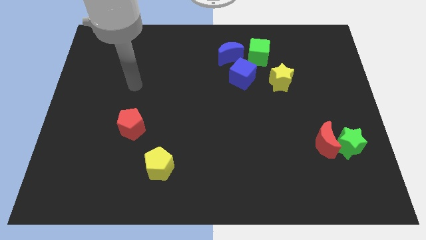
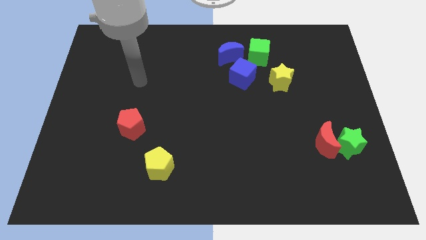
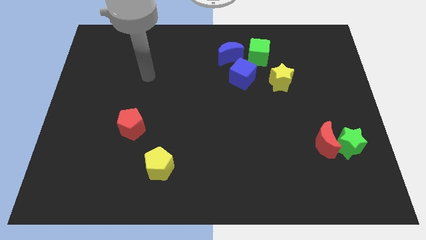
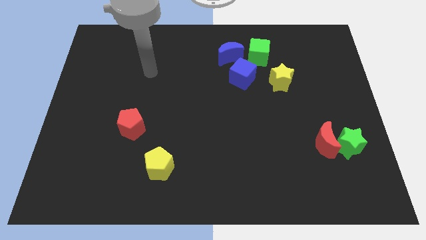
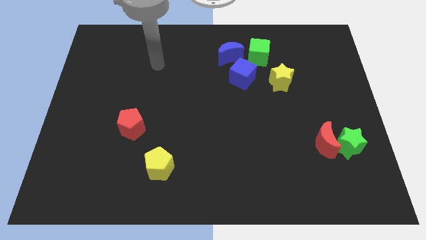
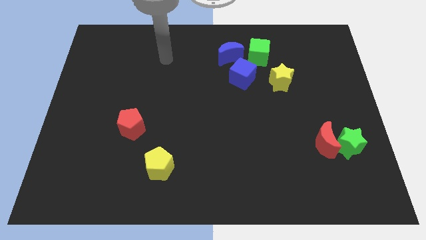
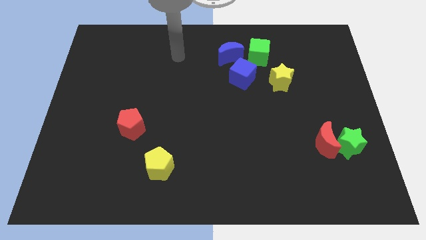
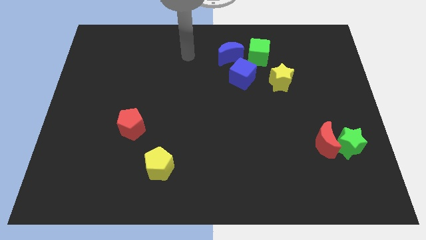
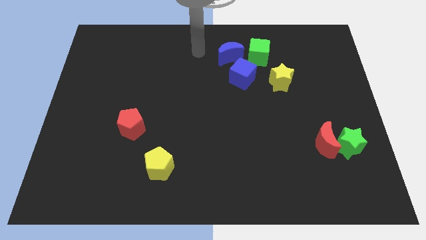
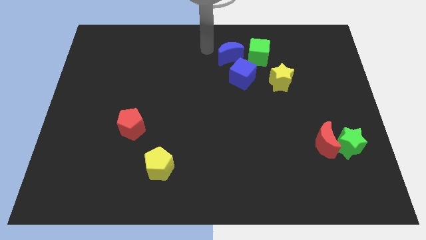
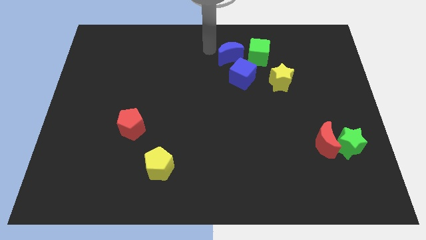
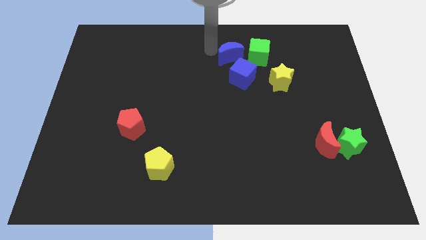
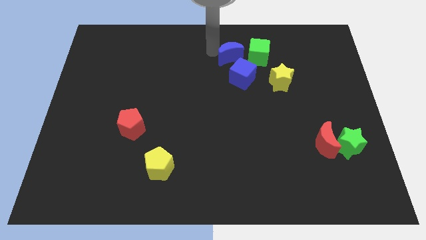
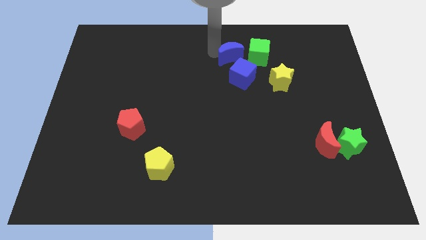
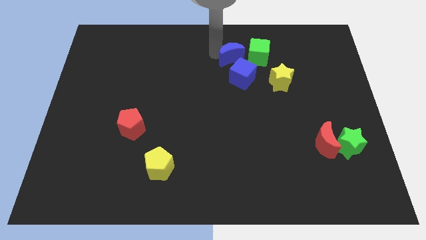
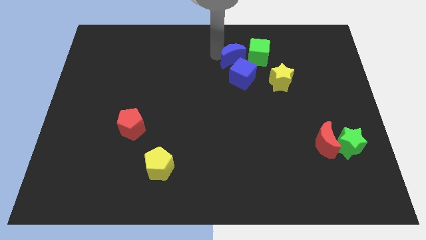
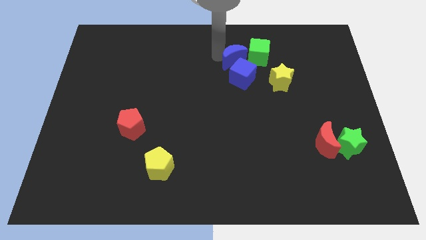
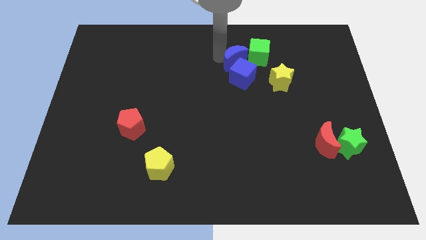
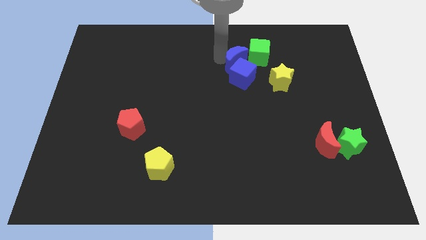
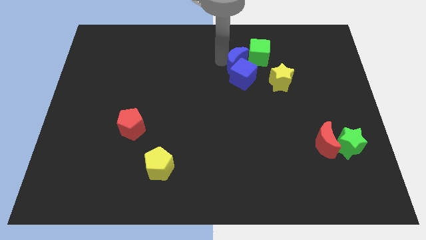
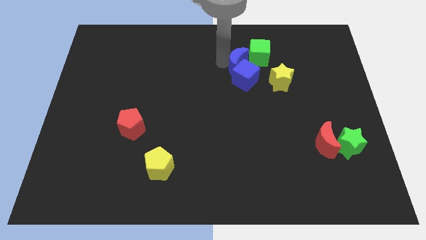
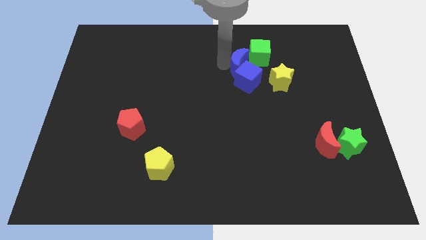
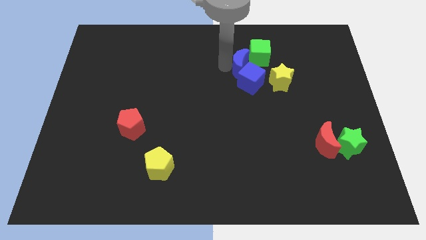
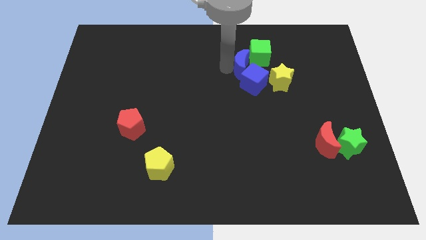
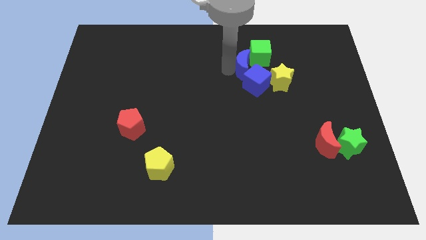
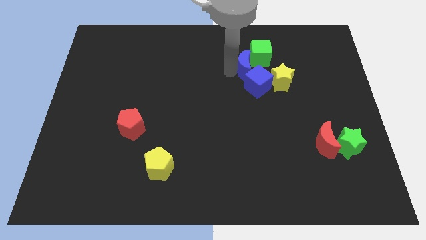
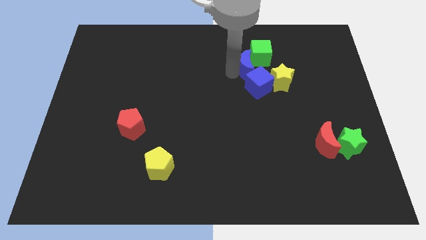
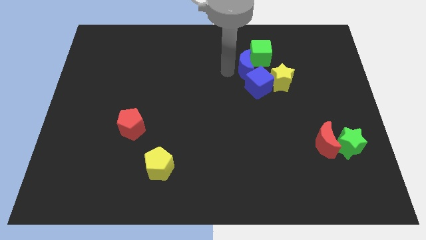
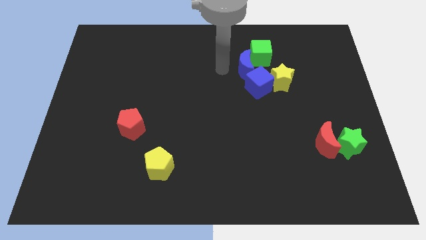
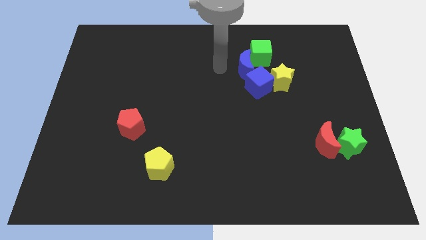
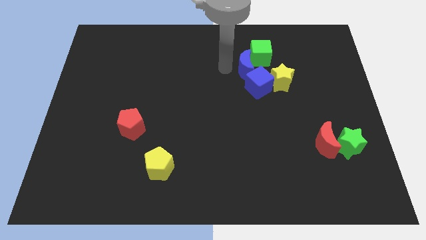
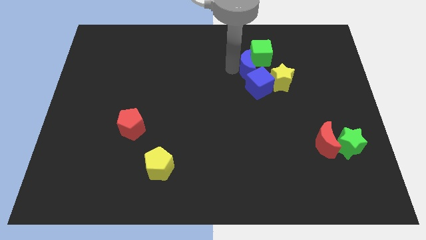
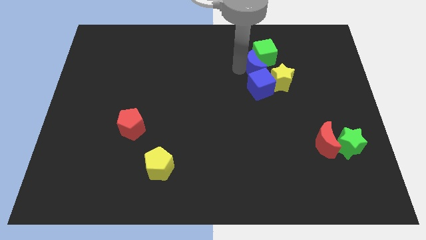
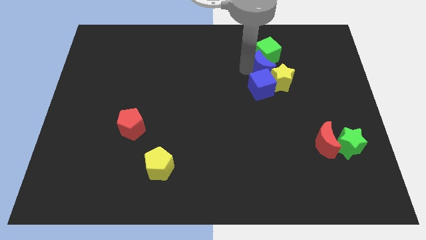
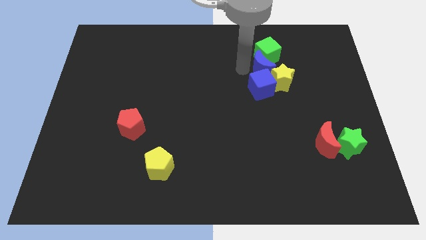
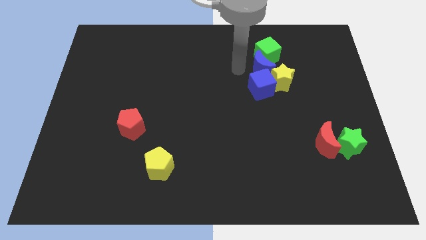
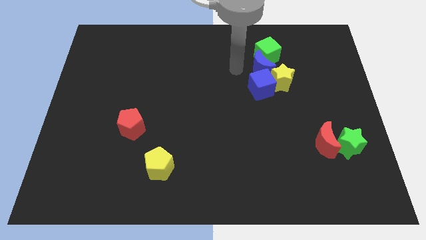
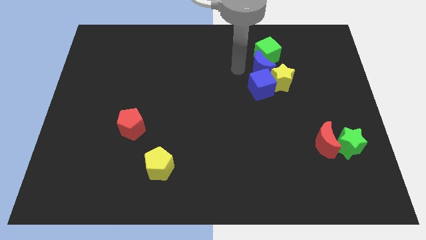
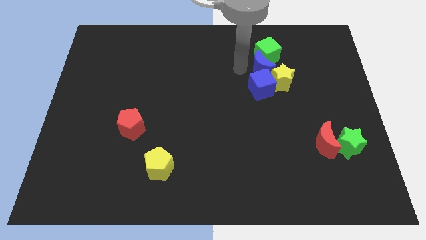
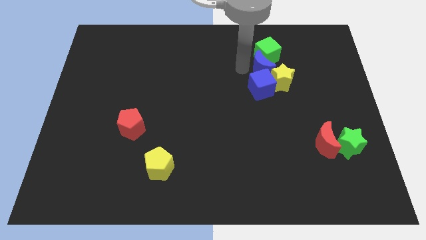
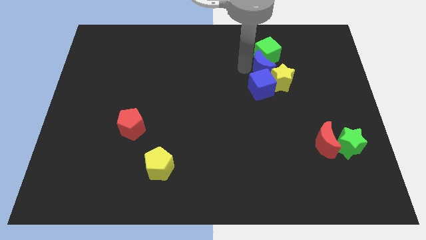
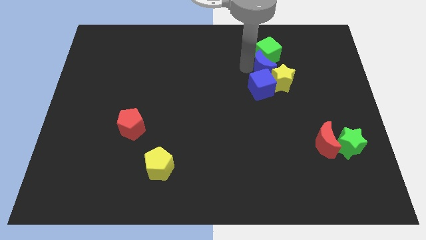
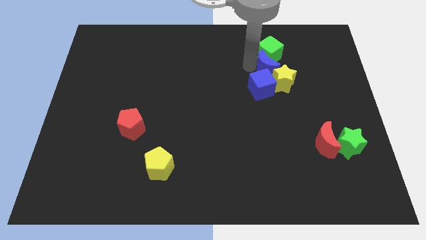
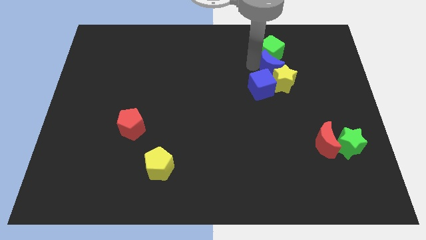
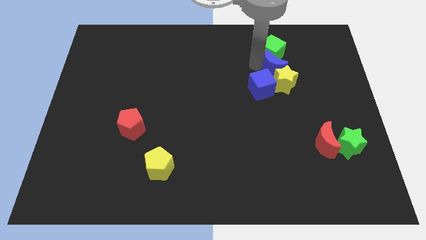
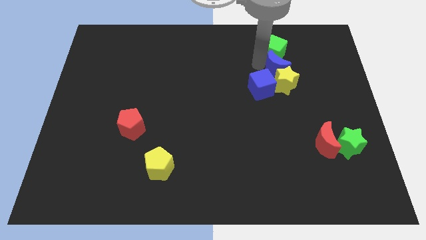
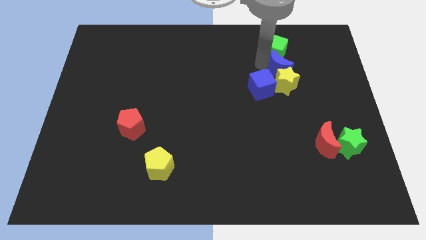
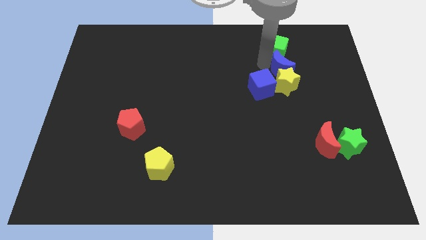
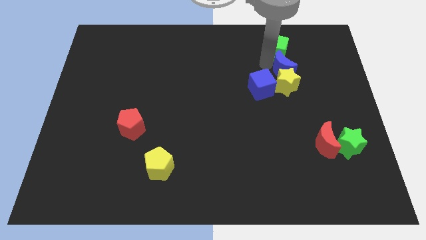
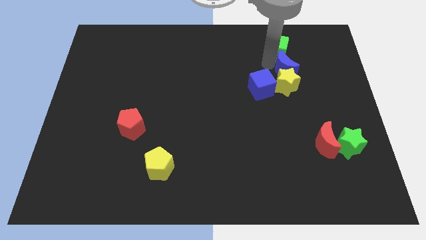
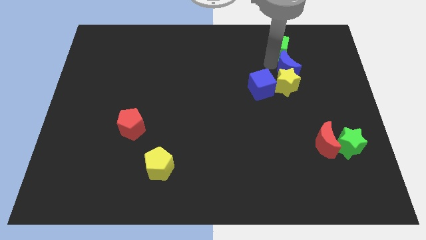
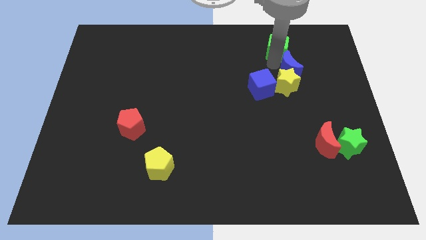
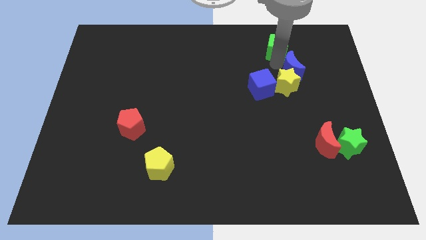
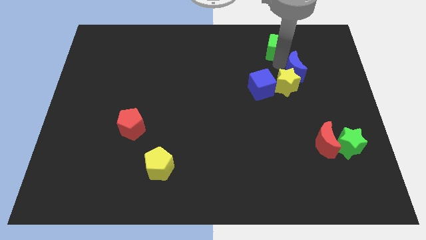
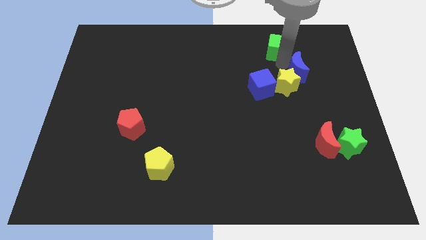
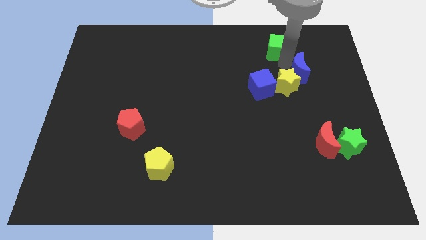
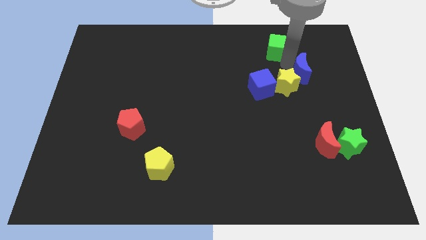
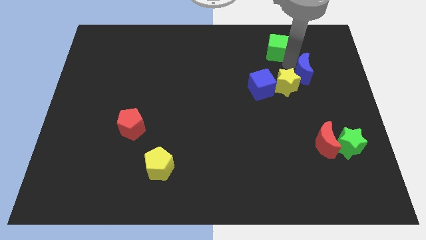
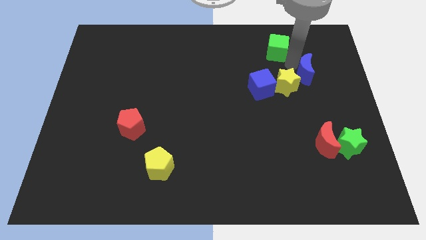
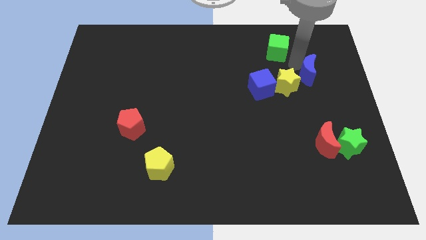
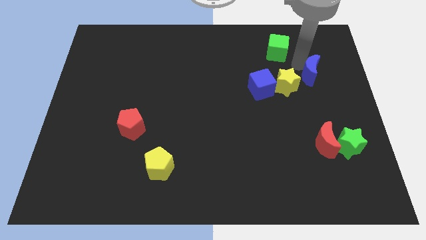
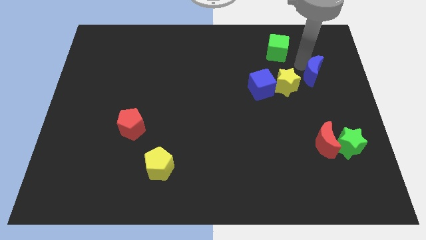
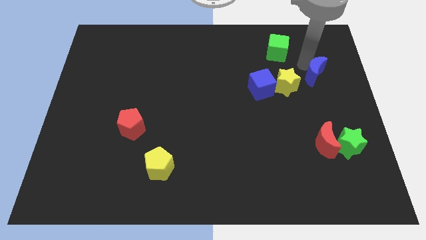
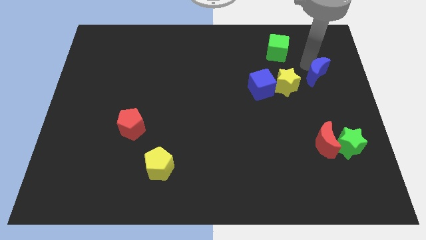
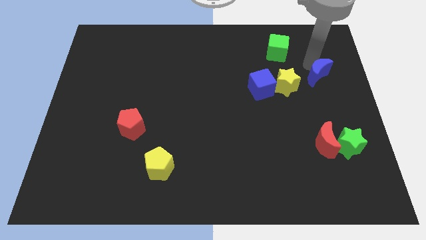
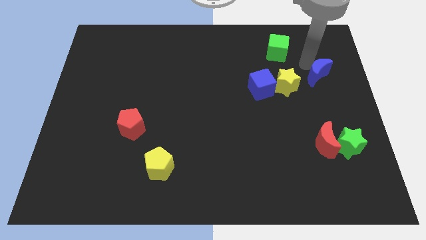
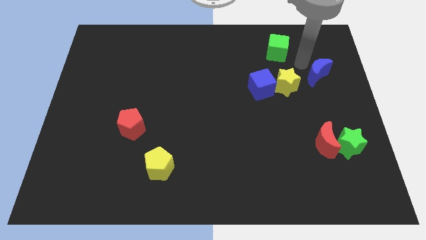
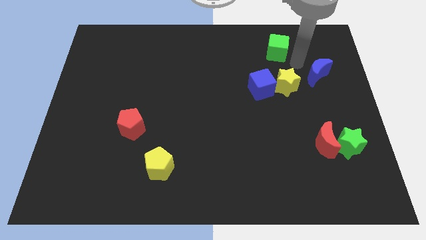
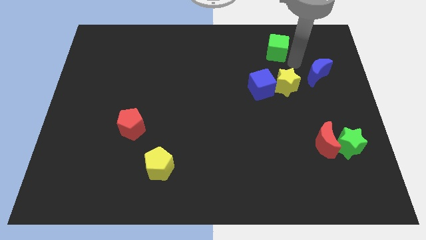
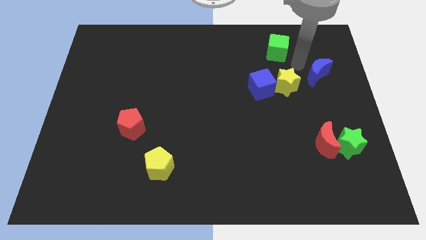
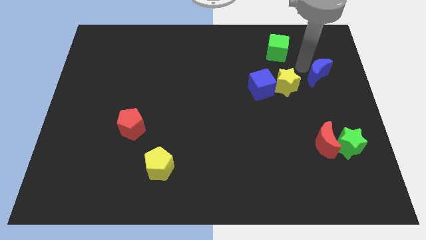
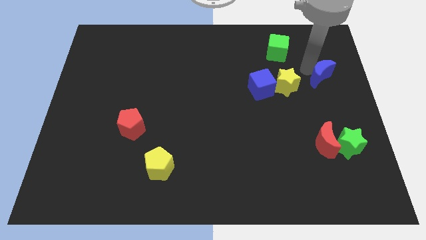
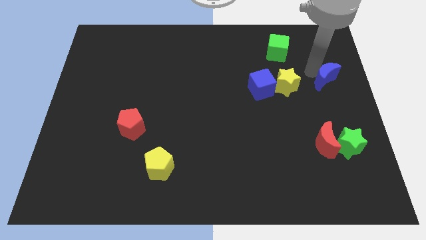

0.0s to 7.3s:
slide the blue moon to the center right
